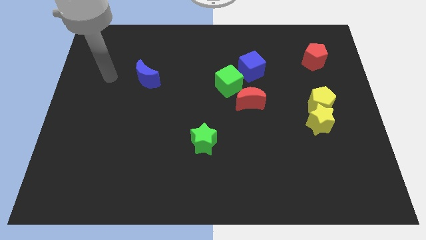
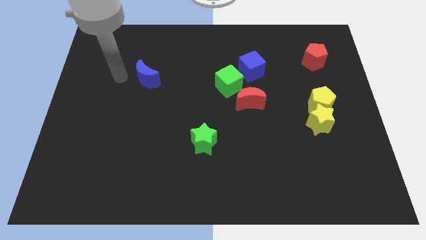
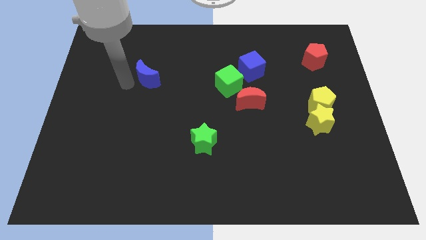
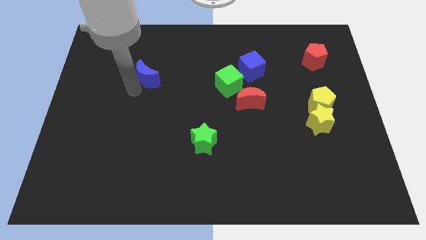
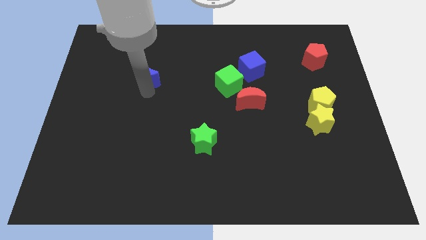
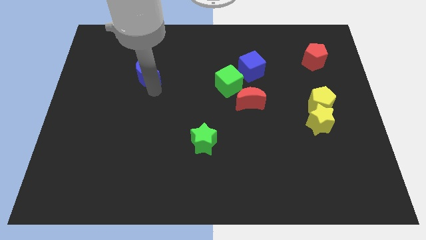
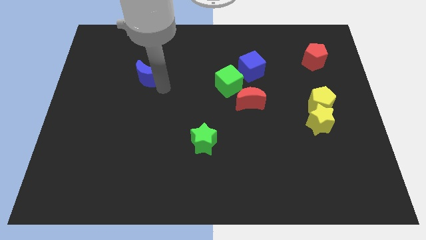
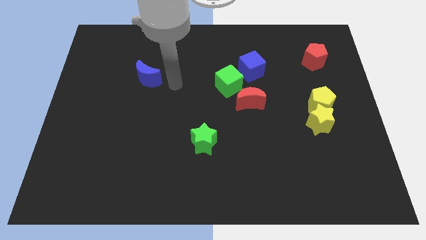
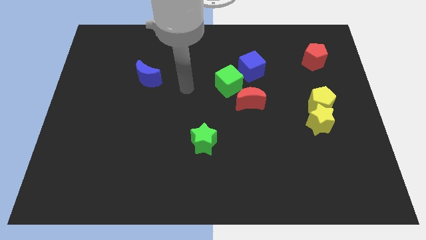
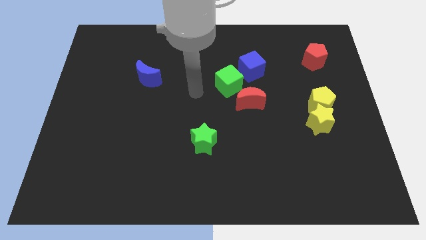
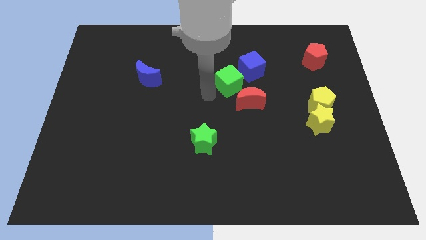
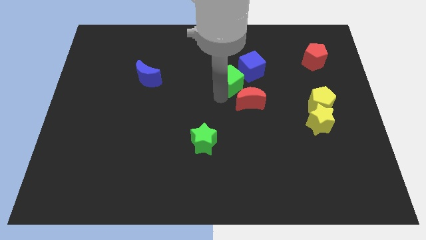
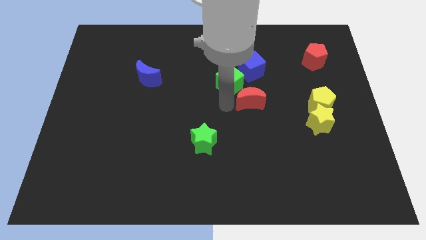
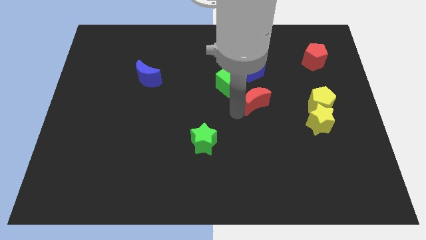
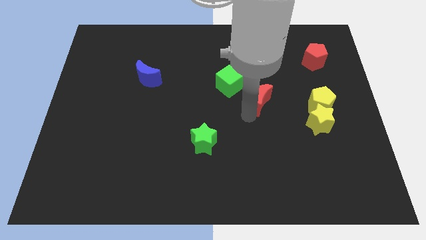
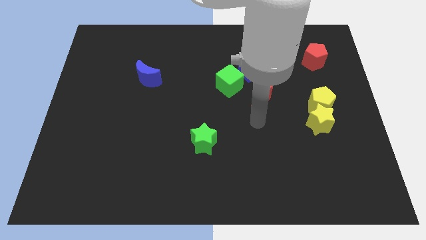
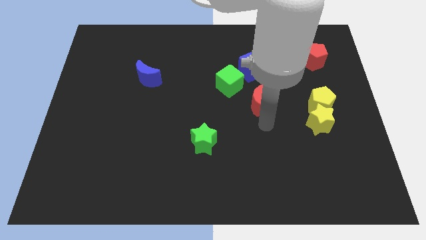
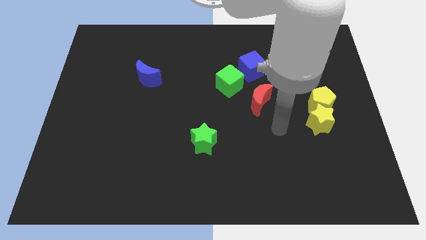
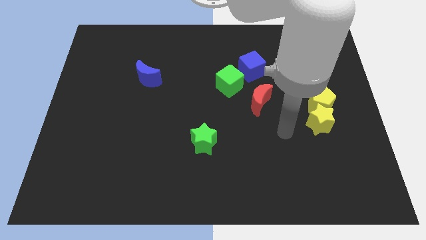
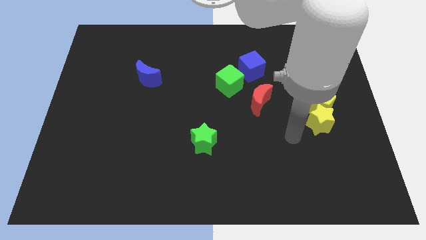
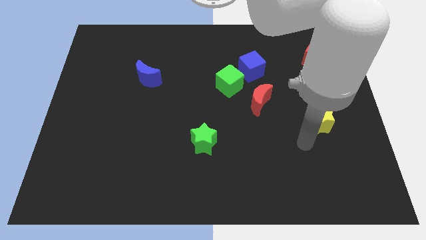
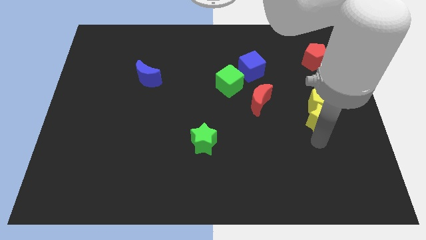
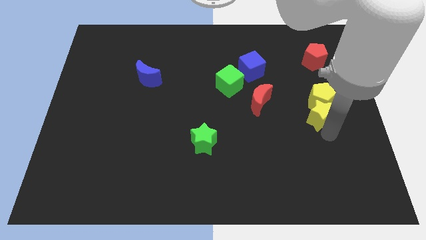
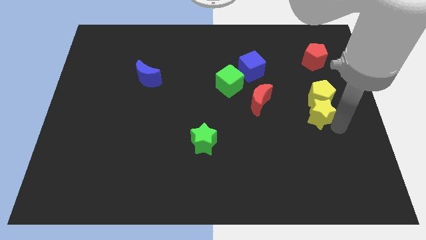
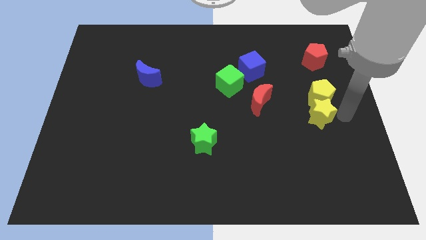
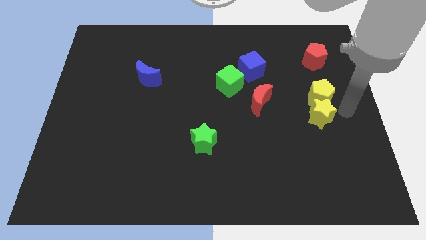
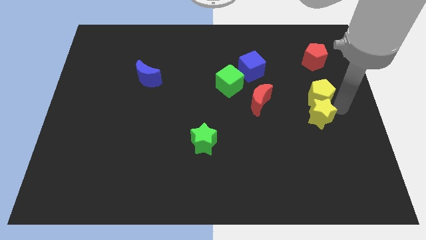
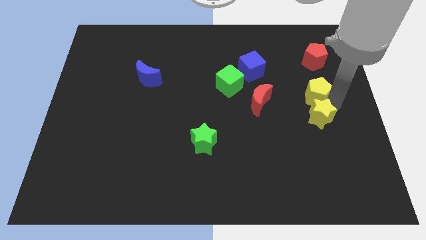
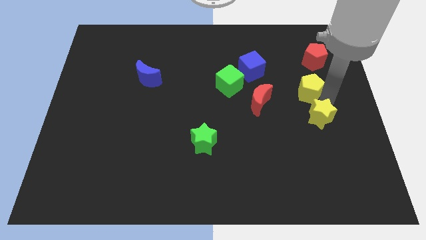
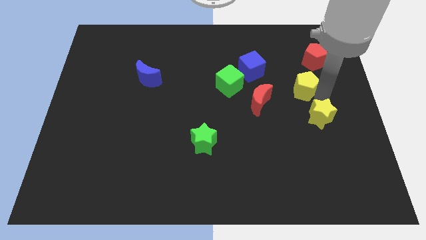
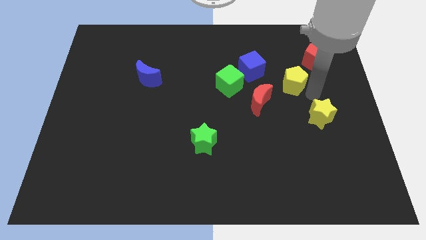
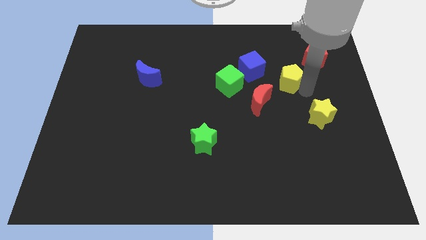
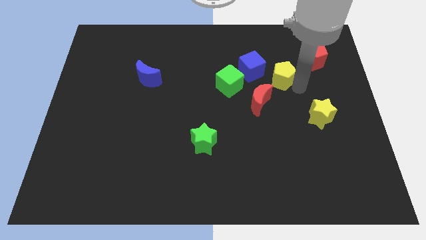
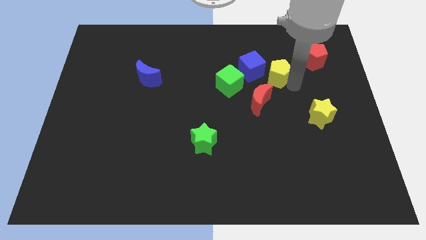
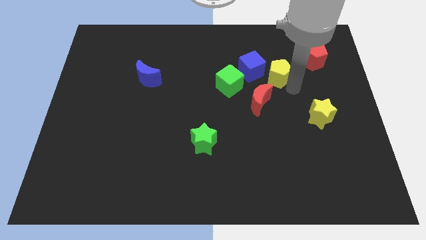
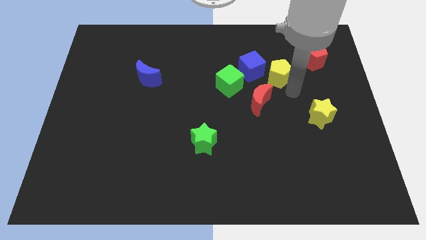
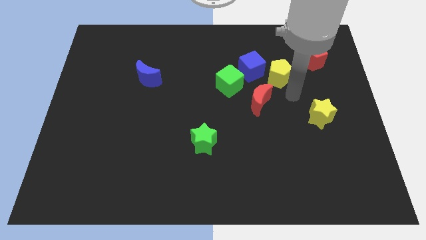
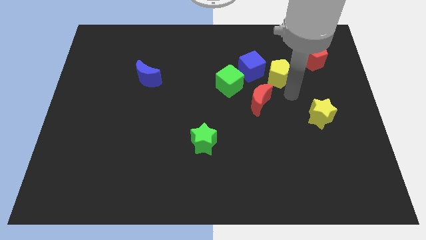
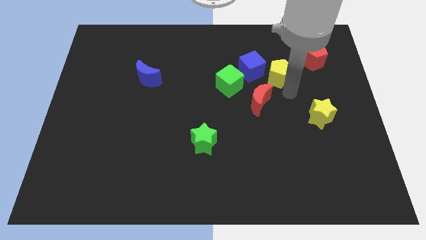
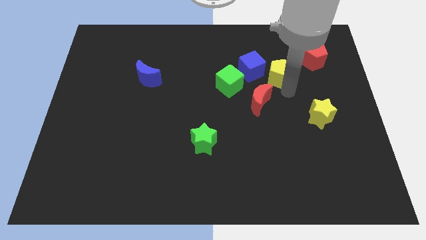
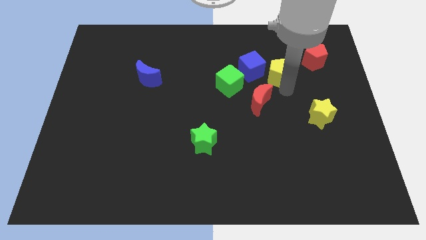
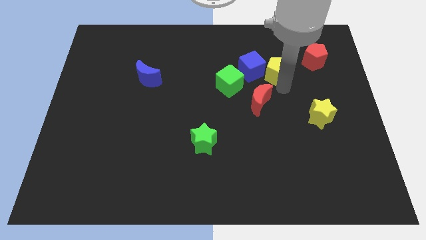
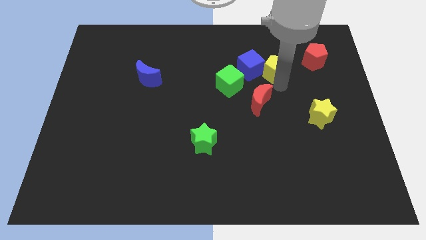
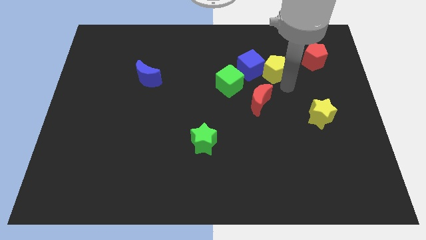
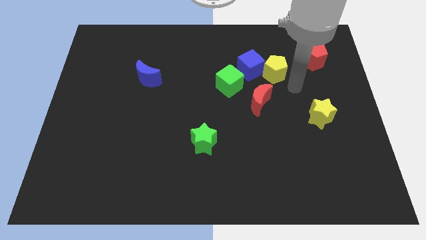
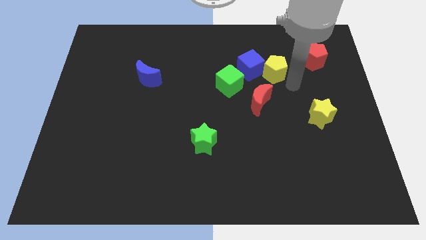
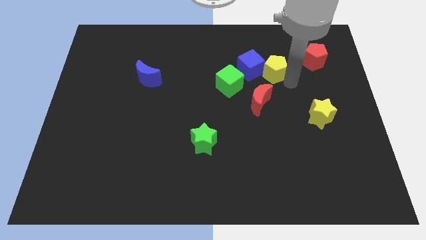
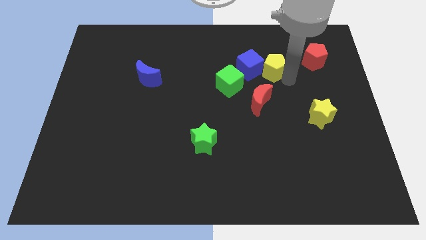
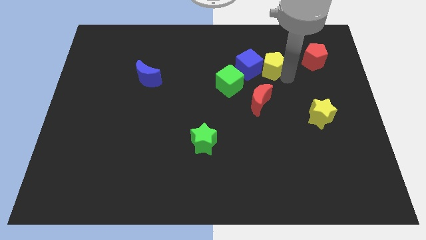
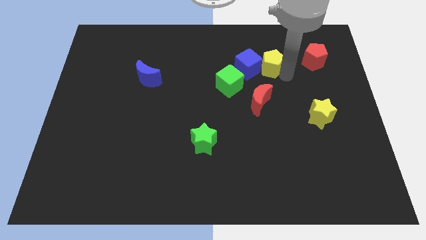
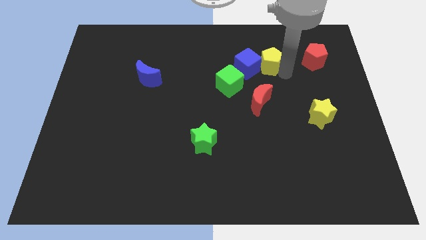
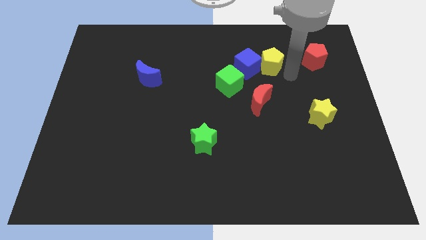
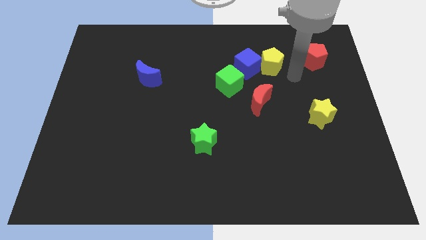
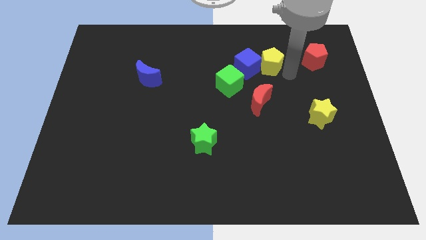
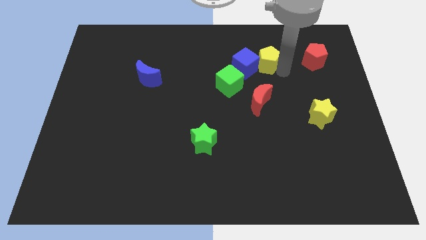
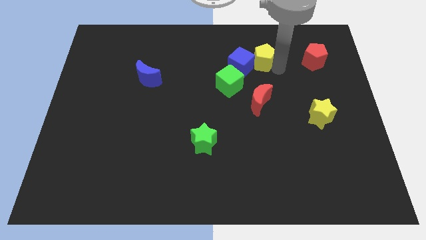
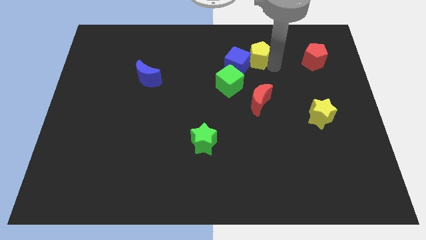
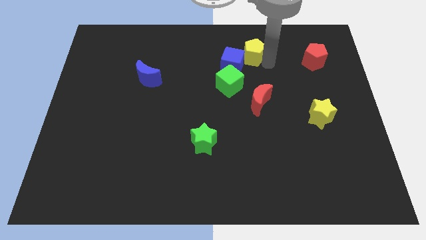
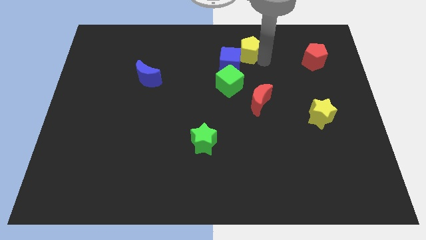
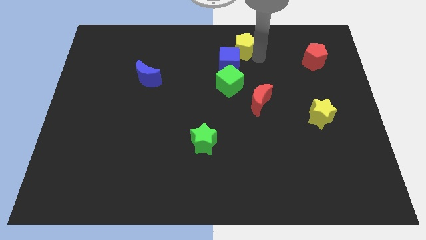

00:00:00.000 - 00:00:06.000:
put the yellow pentagon to the top

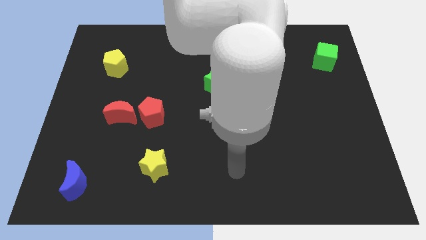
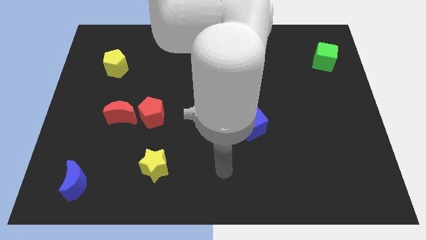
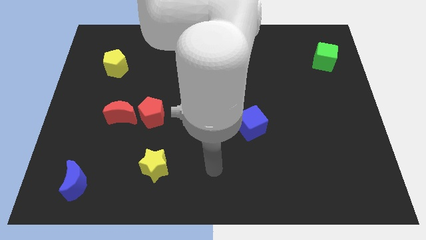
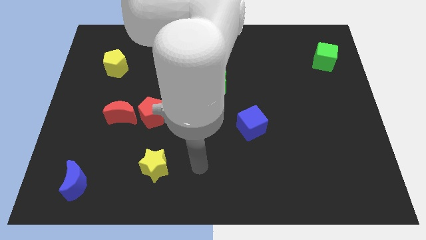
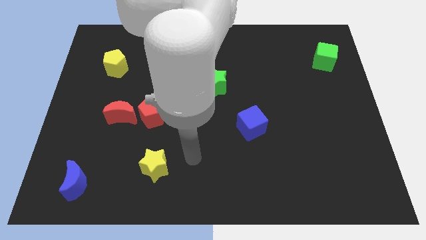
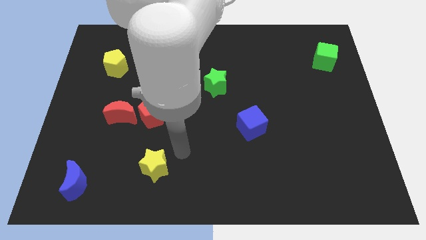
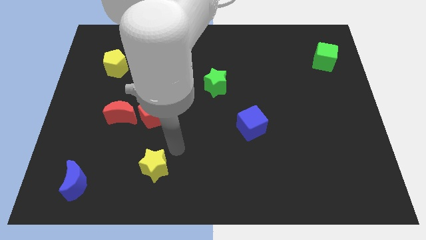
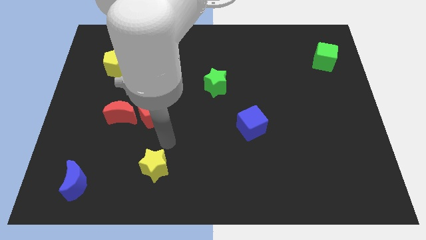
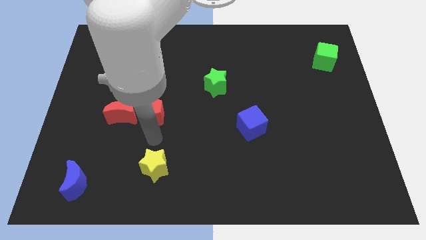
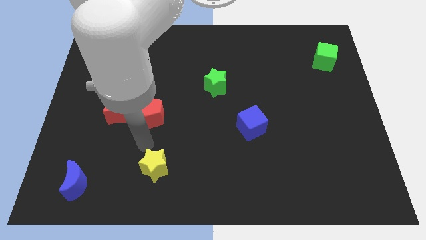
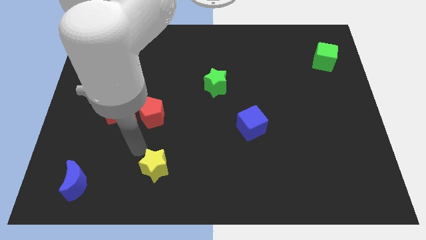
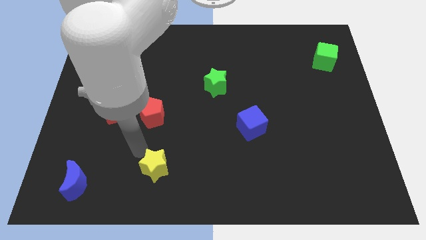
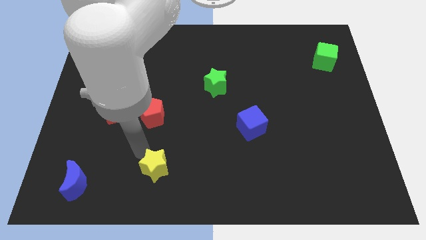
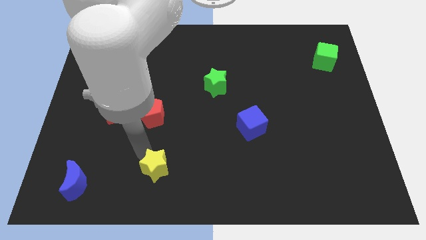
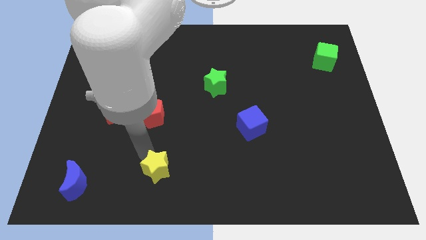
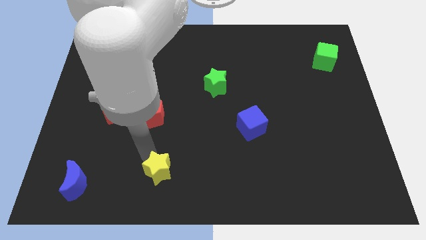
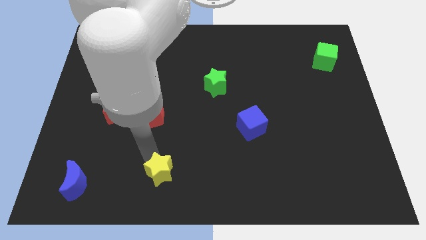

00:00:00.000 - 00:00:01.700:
move the yellow star to the bottom side

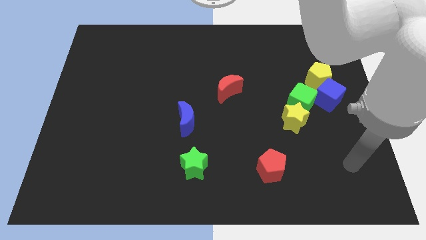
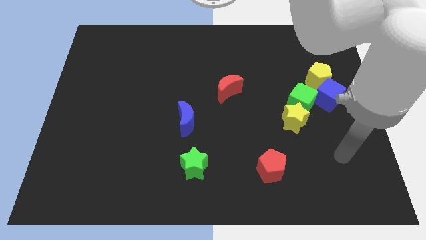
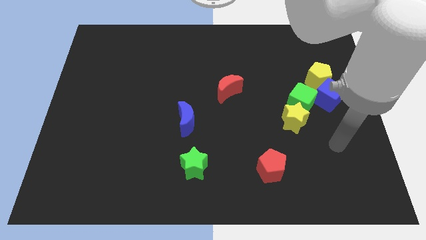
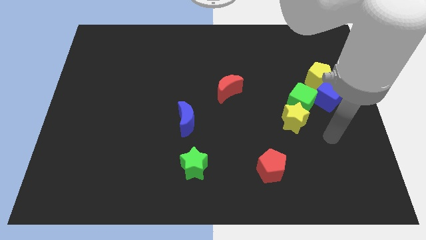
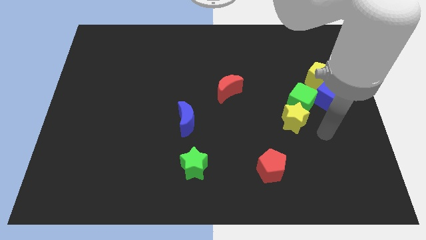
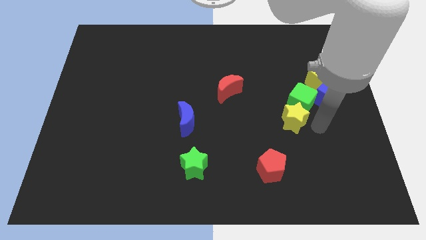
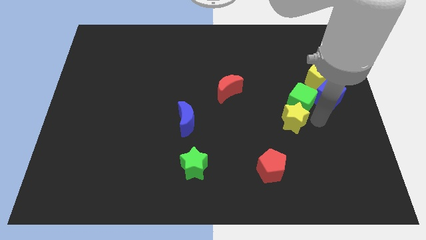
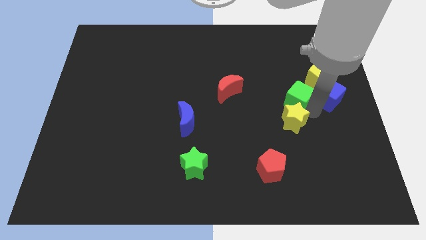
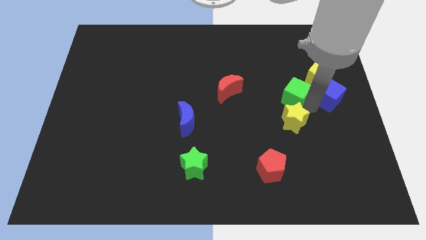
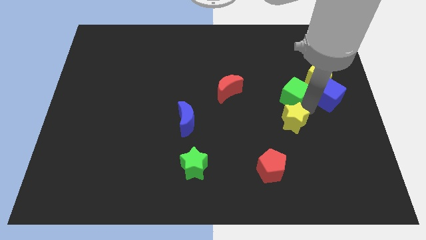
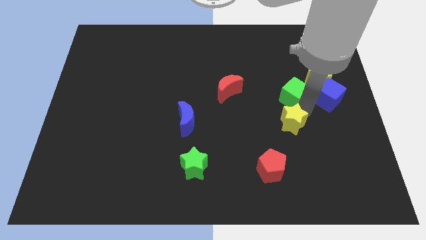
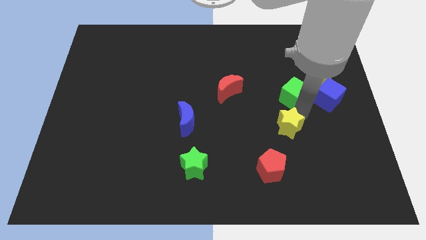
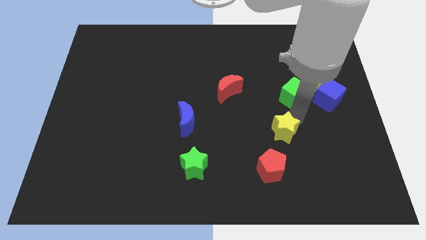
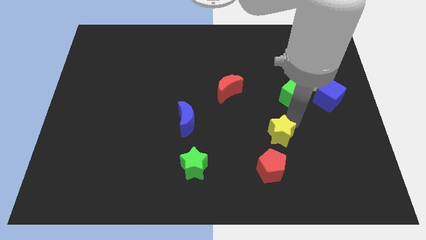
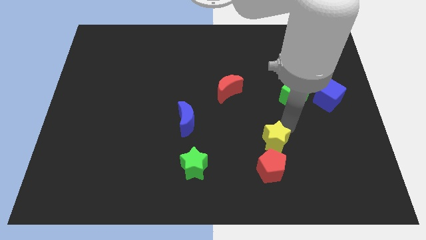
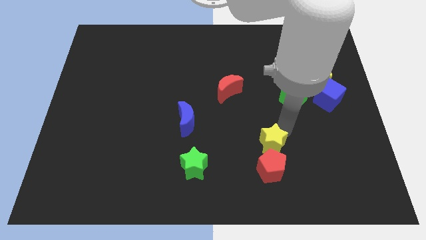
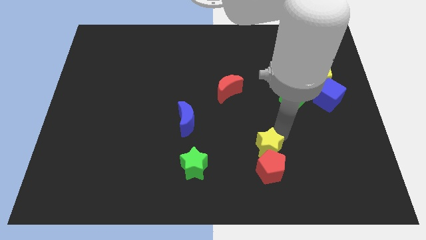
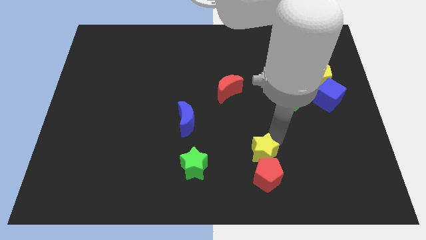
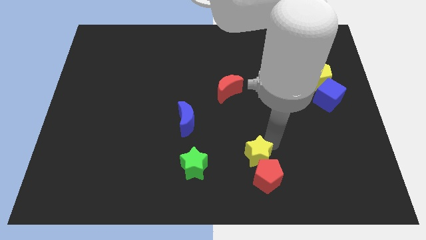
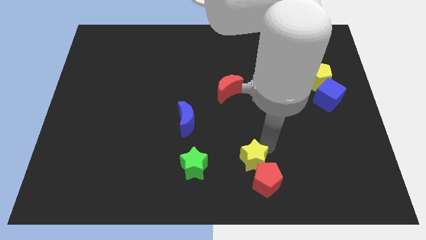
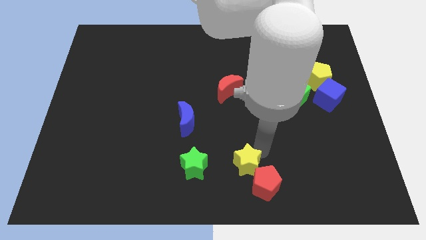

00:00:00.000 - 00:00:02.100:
slide the yellow star to the bottom
